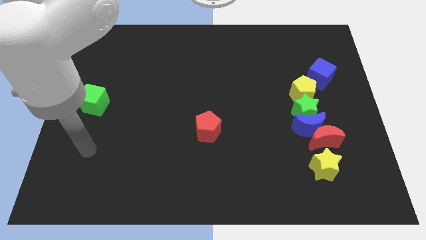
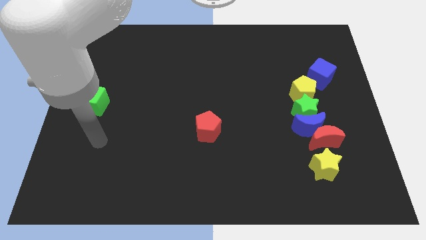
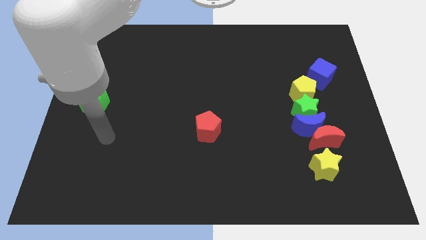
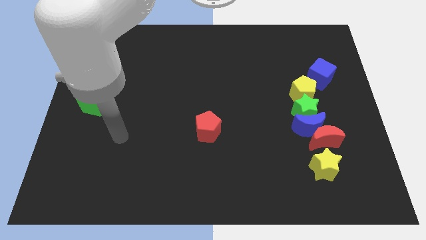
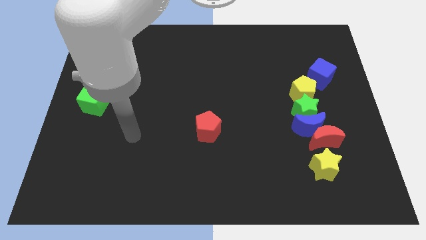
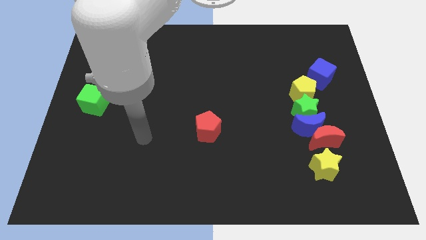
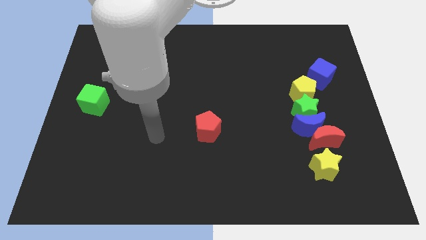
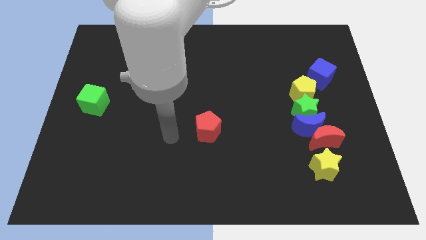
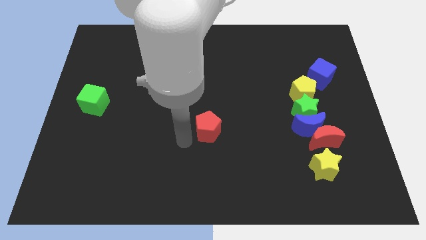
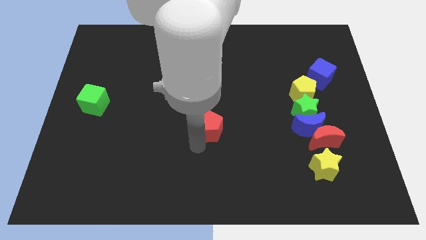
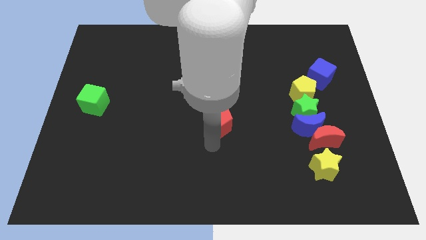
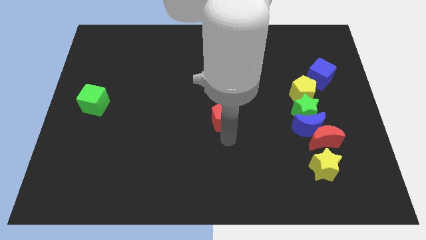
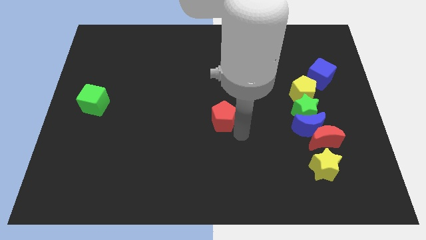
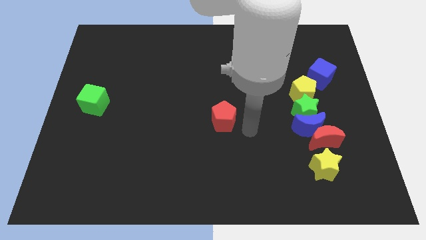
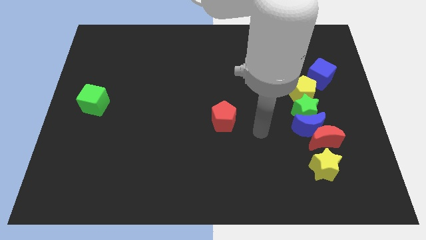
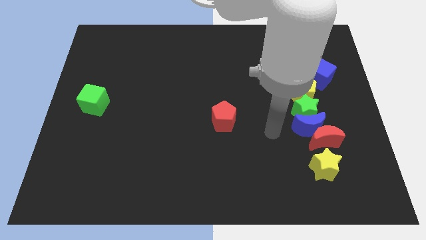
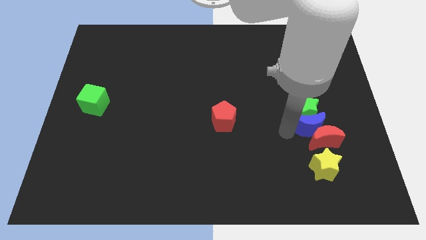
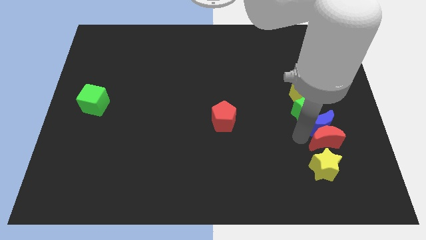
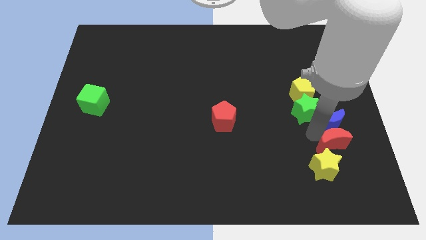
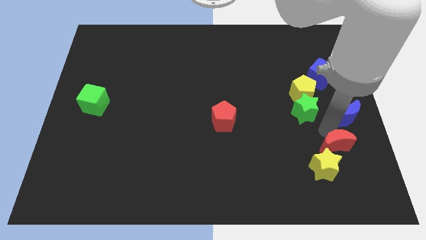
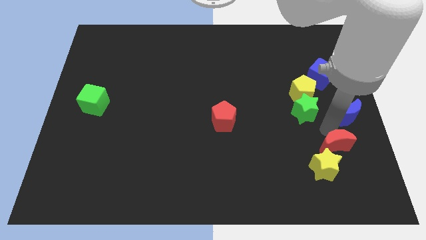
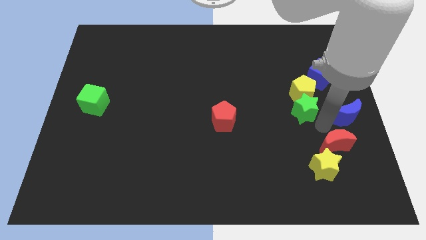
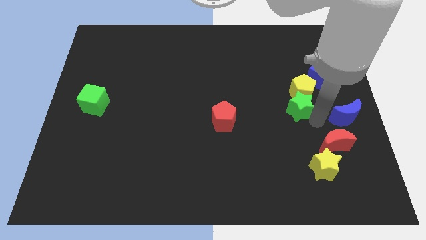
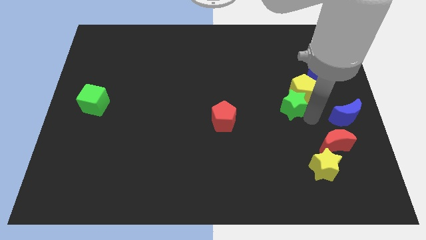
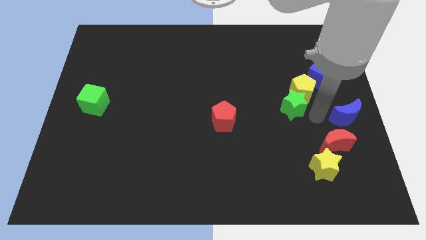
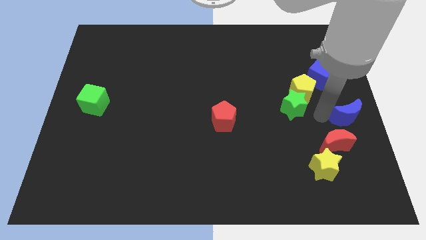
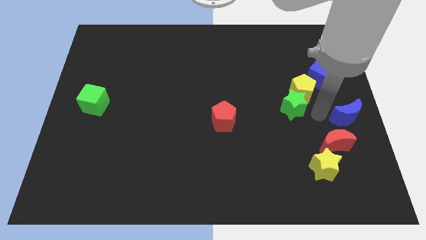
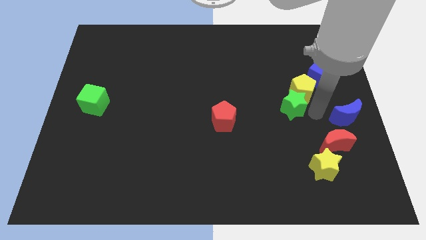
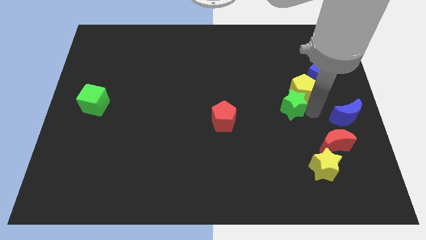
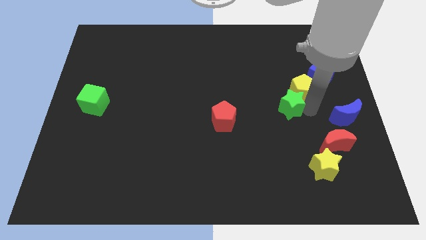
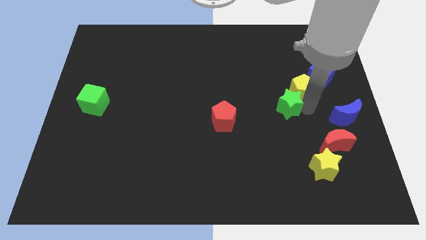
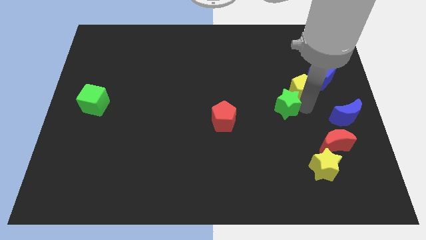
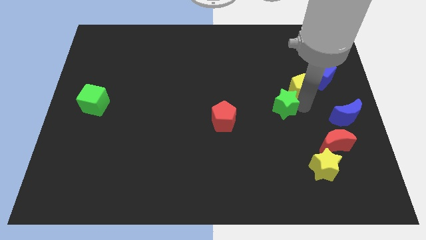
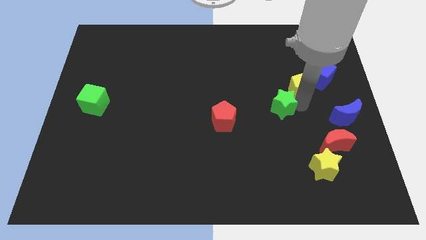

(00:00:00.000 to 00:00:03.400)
pull the green star apart from the group of blocks

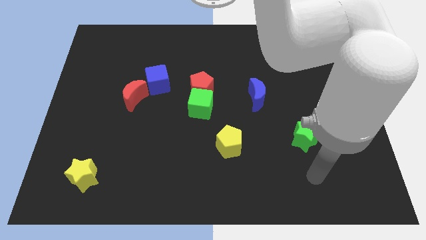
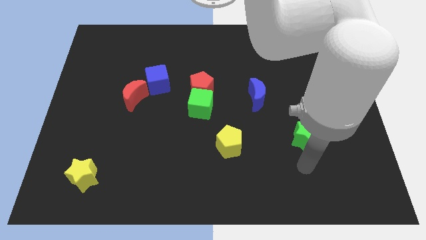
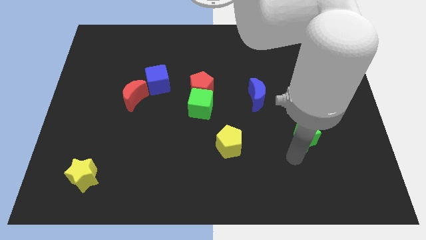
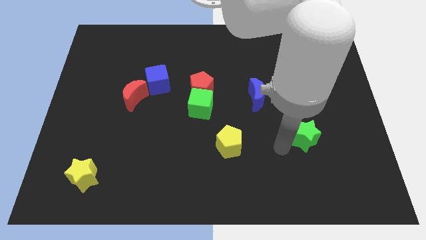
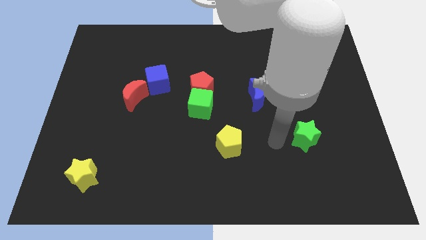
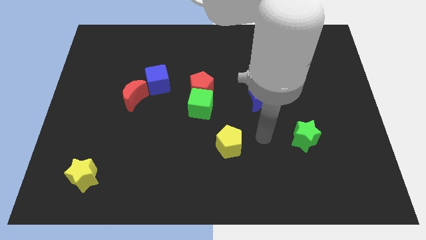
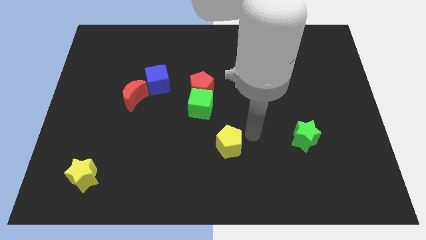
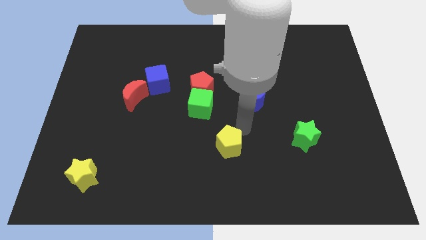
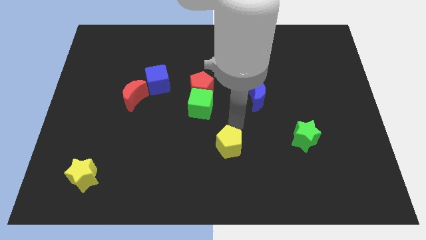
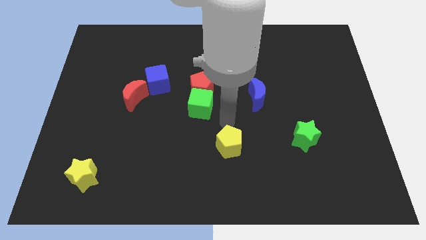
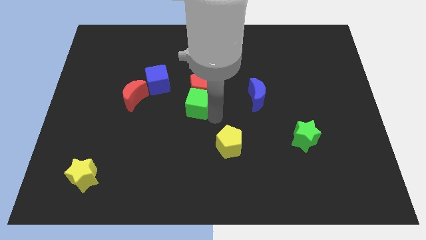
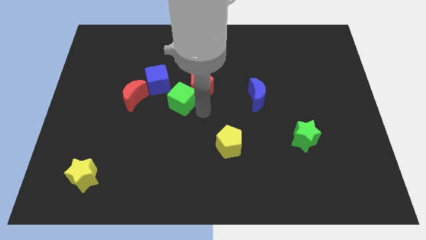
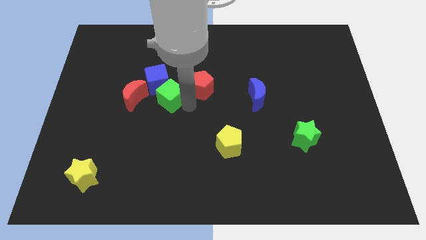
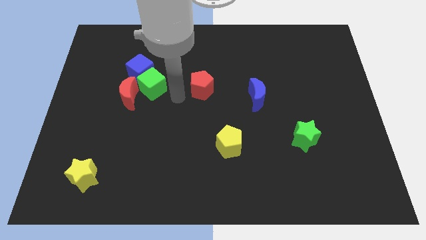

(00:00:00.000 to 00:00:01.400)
move the red pentagon away from the green cube

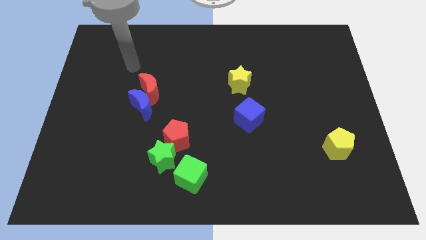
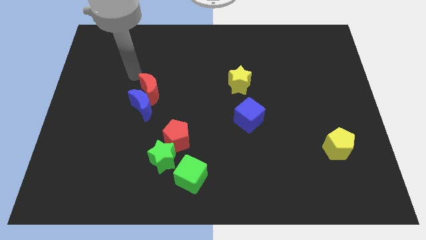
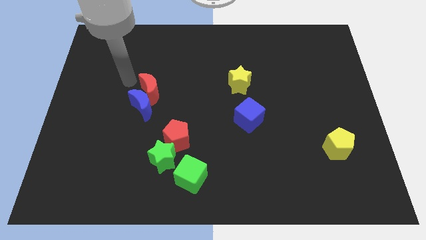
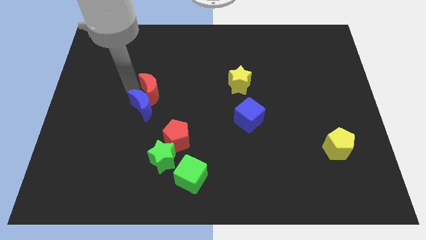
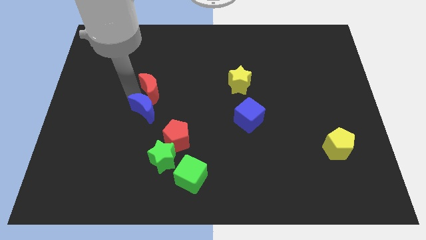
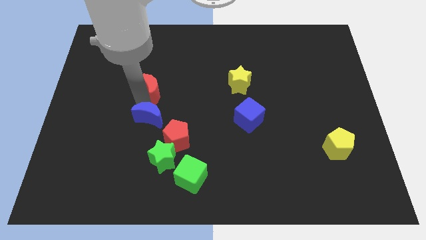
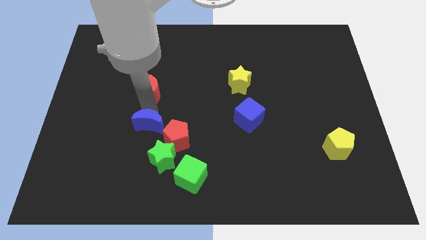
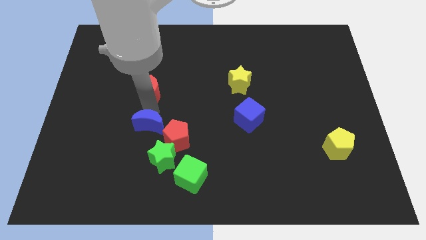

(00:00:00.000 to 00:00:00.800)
move the red moon away from the blue moon

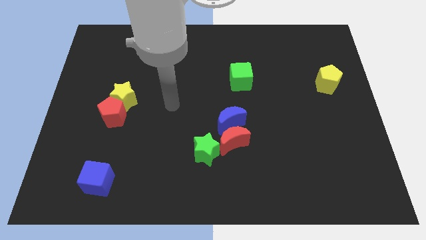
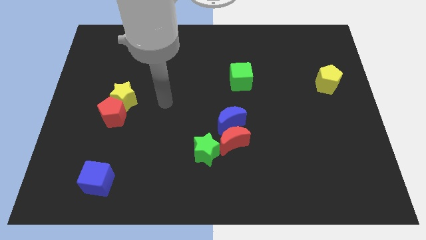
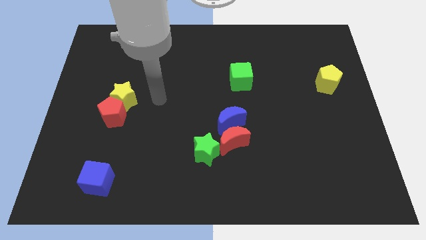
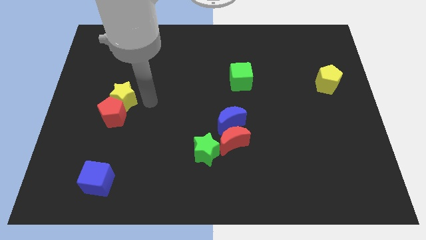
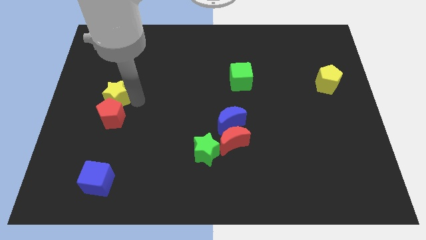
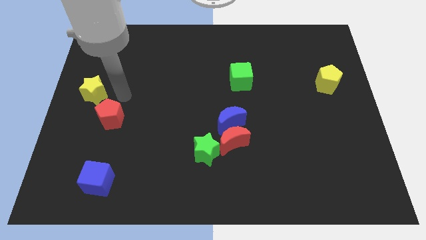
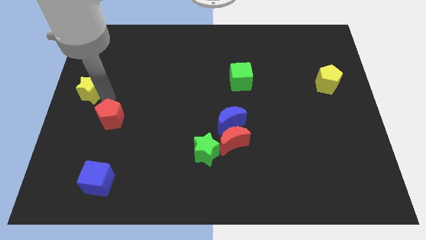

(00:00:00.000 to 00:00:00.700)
separate the red pentagon from the yellow star

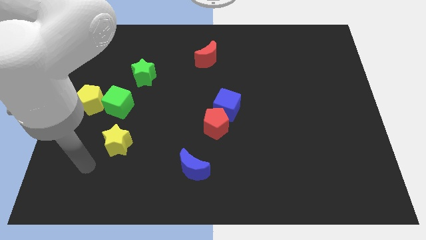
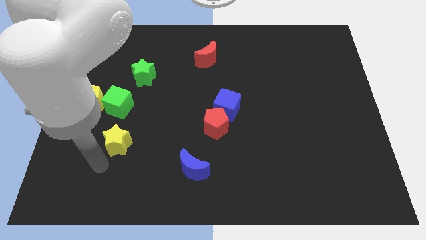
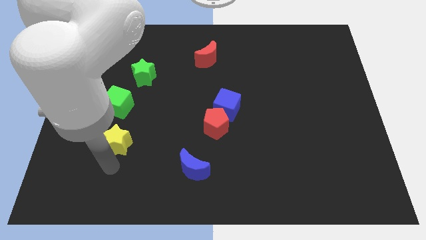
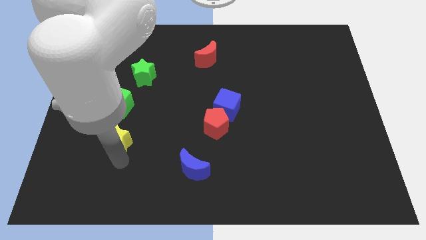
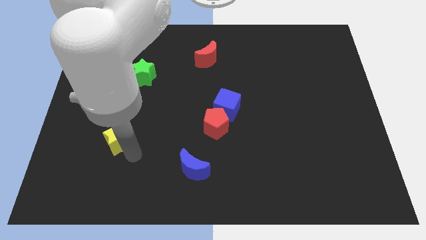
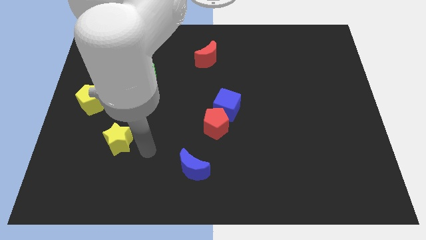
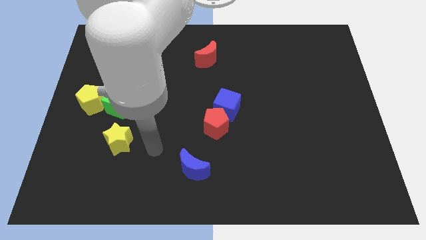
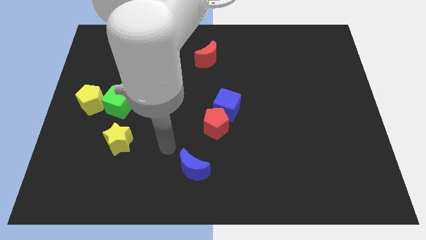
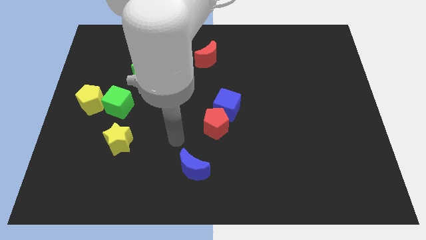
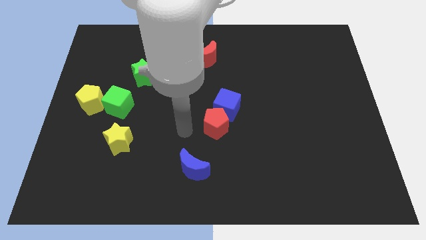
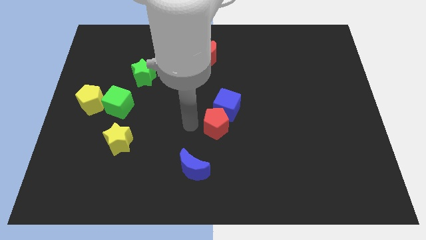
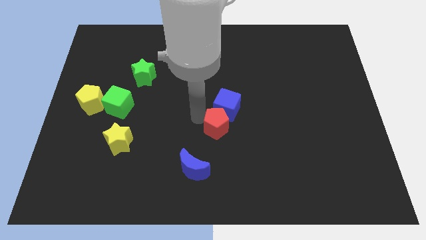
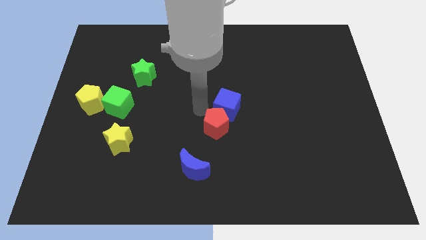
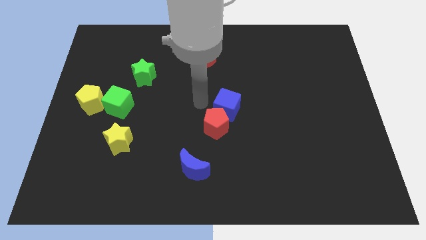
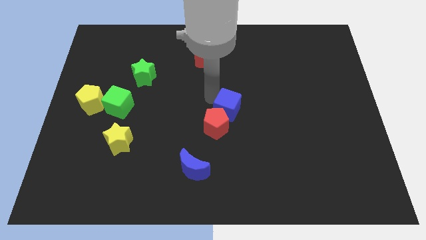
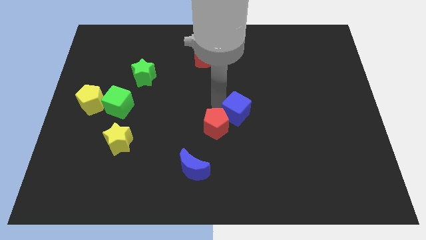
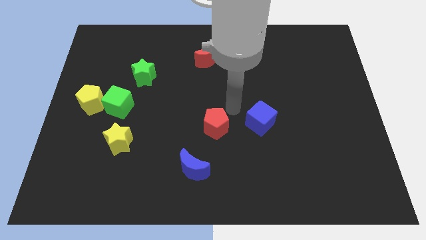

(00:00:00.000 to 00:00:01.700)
move the red pentagon away from the blue cube

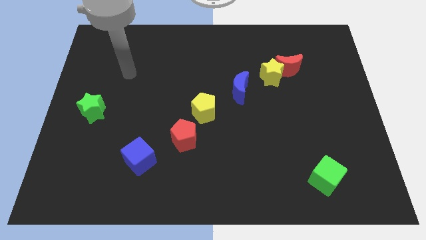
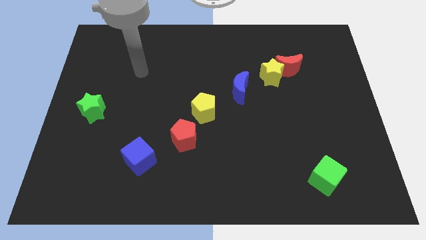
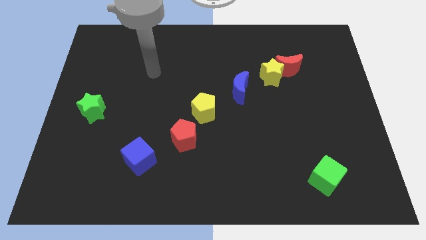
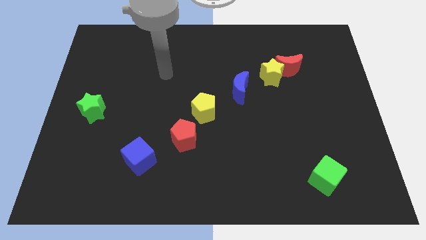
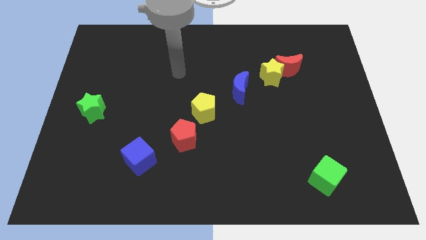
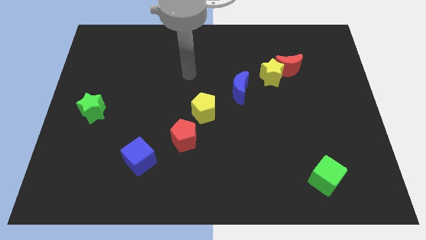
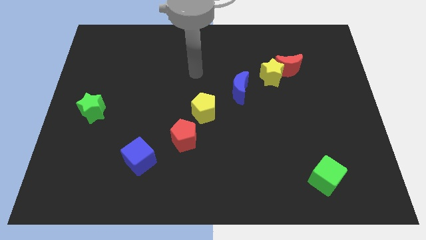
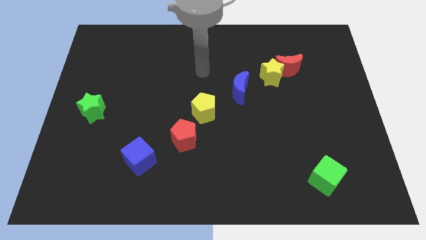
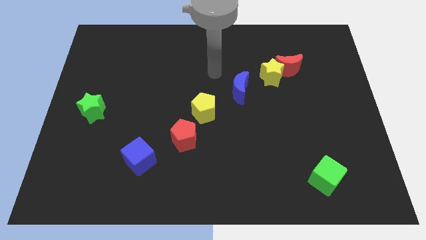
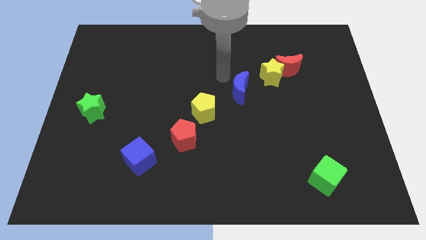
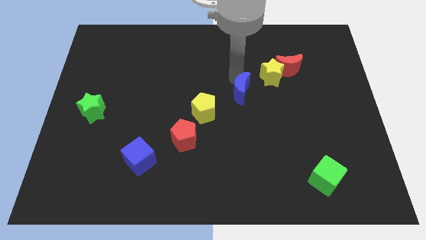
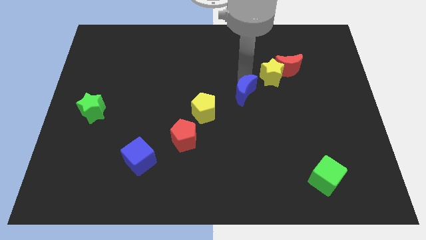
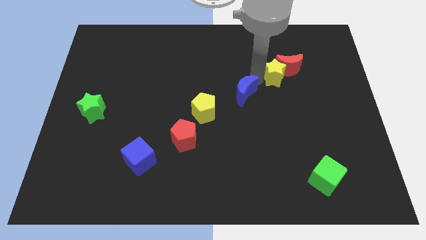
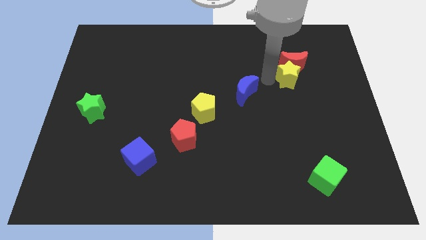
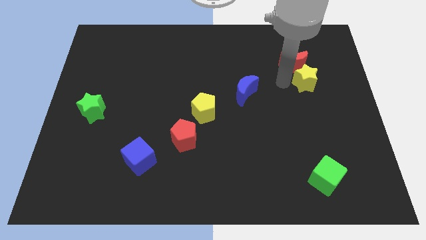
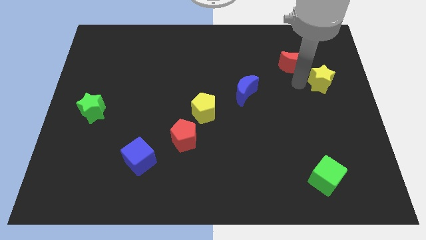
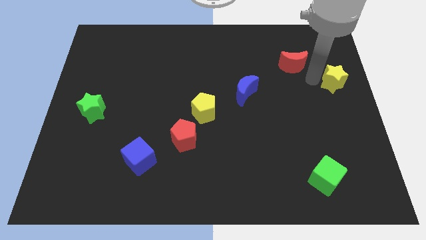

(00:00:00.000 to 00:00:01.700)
separate the red moon from the yellow star
